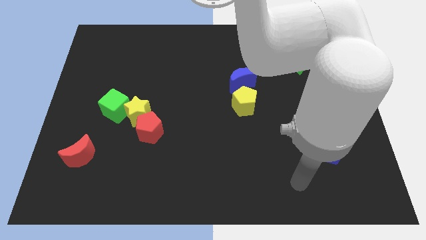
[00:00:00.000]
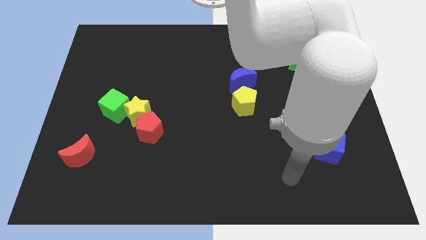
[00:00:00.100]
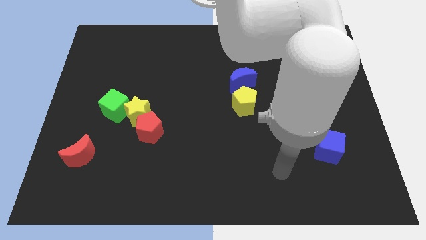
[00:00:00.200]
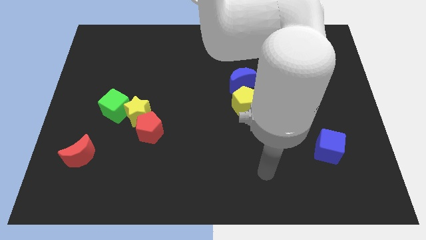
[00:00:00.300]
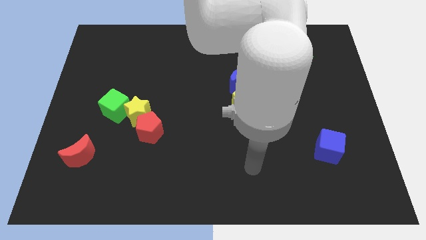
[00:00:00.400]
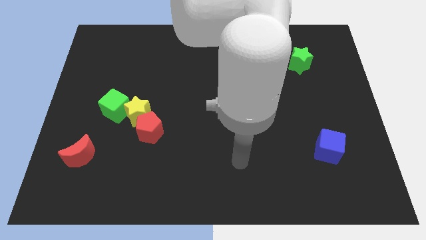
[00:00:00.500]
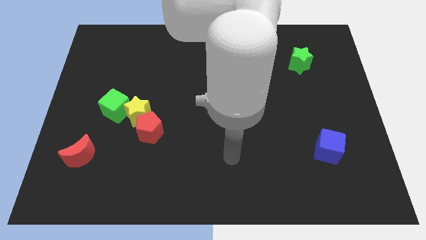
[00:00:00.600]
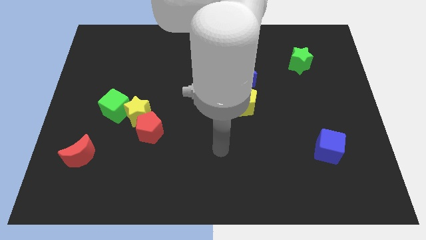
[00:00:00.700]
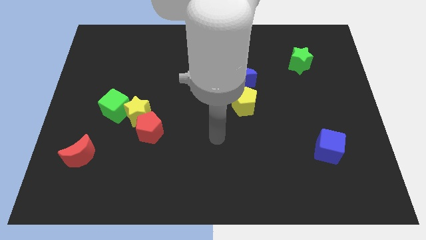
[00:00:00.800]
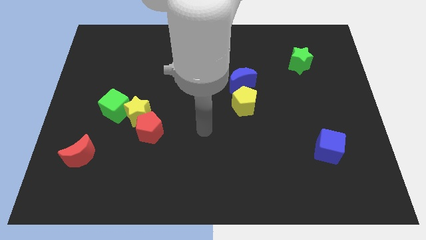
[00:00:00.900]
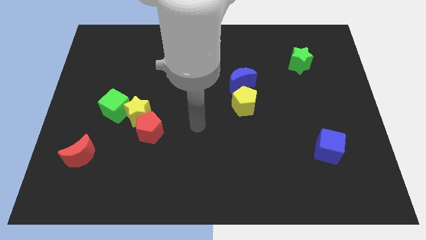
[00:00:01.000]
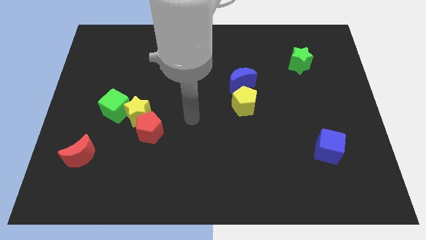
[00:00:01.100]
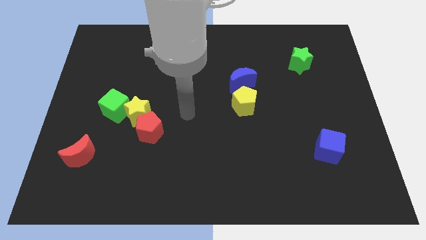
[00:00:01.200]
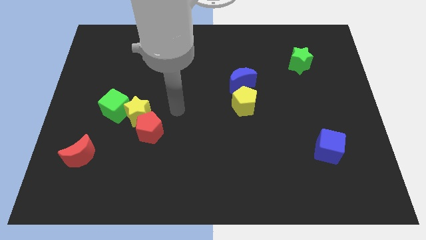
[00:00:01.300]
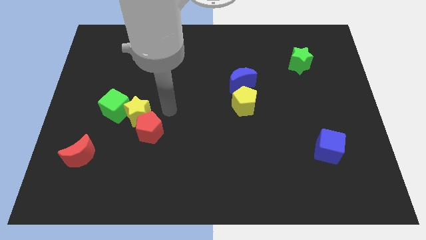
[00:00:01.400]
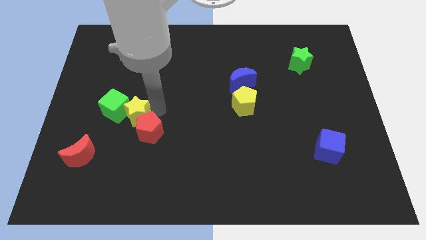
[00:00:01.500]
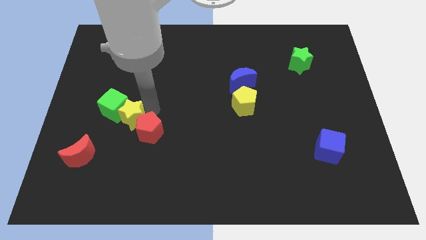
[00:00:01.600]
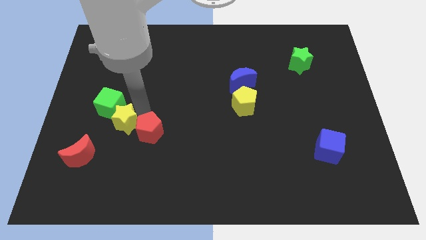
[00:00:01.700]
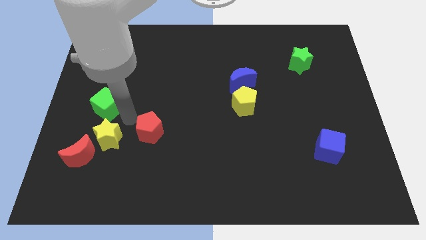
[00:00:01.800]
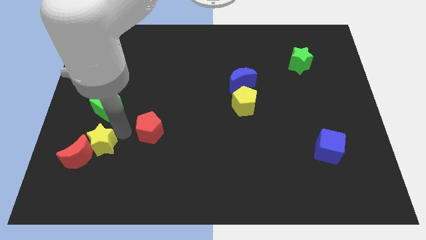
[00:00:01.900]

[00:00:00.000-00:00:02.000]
pull the red pentagon apart from the yellow star

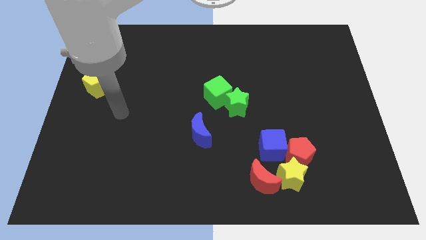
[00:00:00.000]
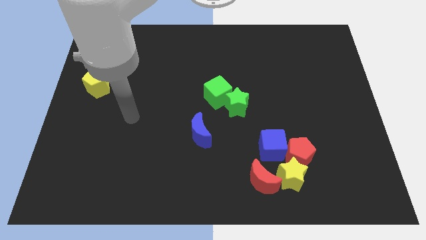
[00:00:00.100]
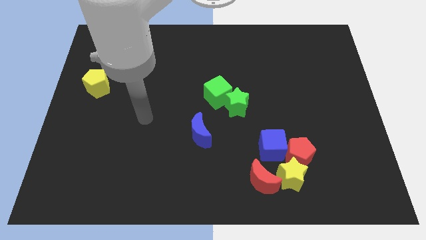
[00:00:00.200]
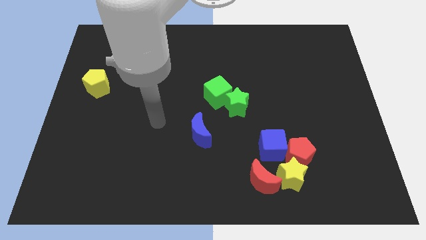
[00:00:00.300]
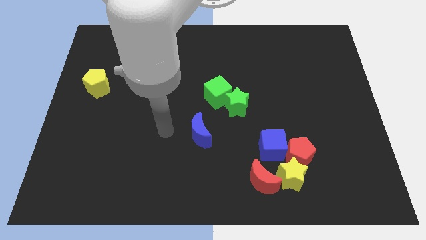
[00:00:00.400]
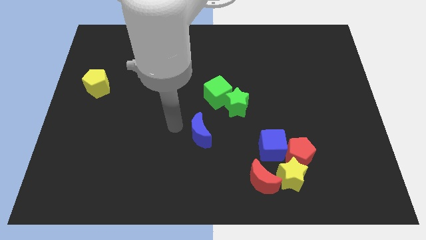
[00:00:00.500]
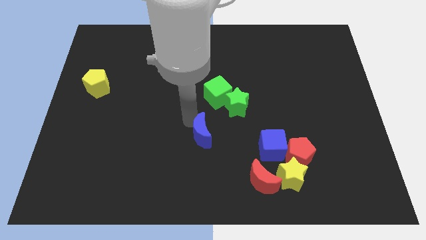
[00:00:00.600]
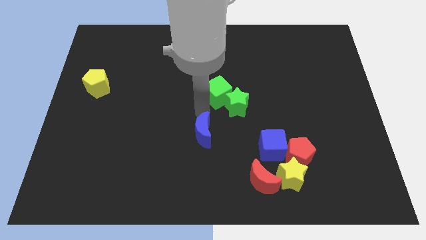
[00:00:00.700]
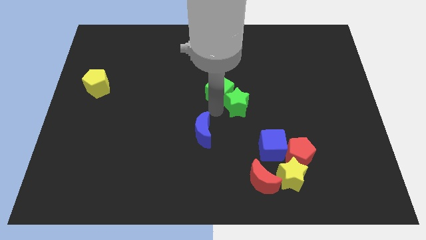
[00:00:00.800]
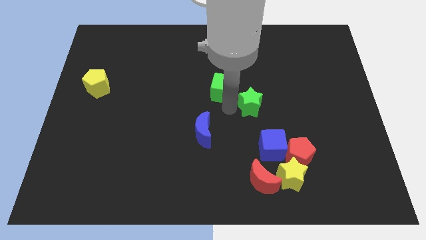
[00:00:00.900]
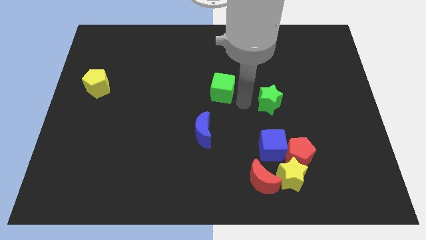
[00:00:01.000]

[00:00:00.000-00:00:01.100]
move the green cube away from the green star

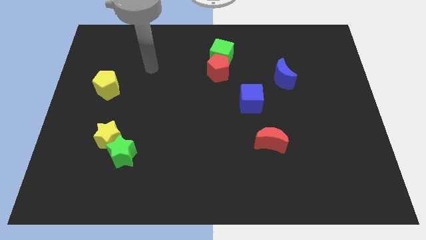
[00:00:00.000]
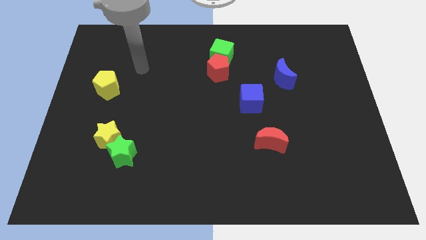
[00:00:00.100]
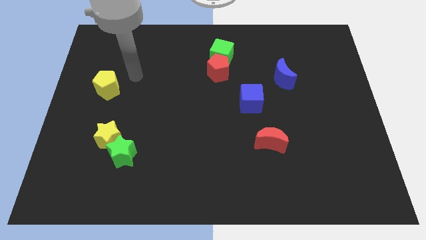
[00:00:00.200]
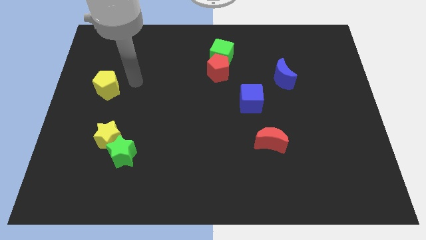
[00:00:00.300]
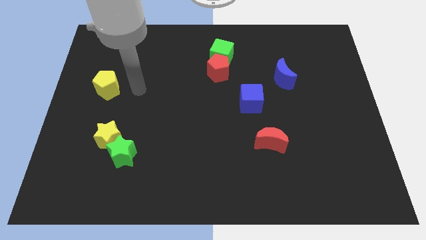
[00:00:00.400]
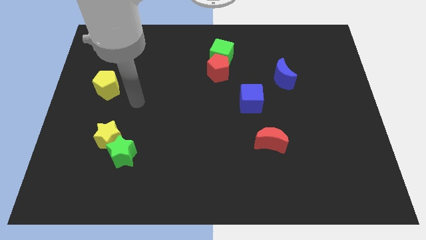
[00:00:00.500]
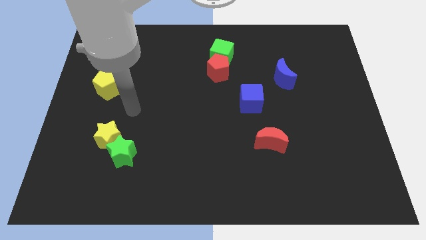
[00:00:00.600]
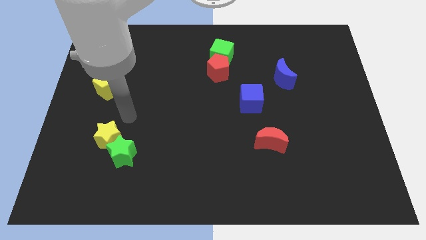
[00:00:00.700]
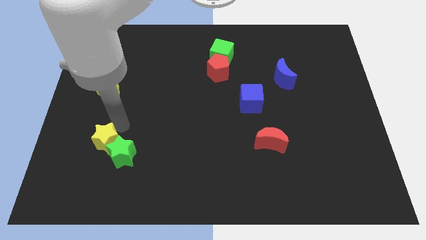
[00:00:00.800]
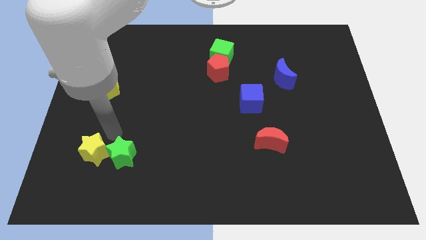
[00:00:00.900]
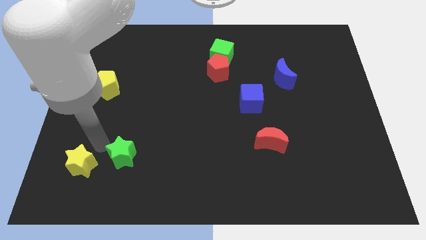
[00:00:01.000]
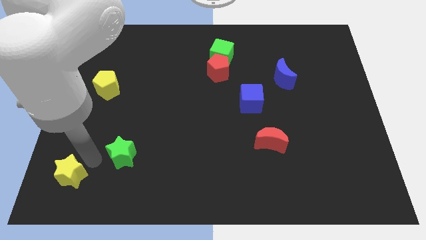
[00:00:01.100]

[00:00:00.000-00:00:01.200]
move the green star away from the yellow star

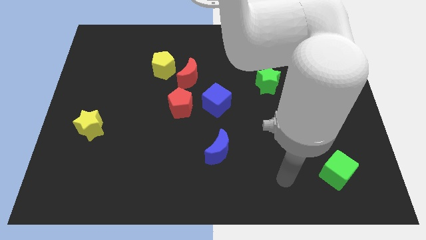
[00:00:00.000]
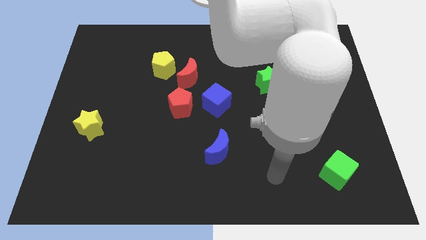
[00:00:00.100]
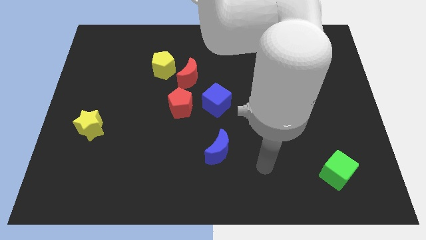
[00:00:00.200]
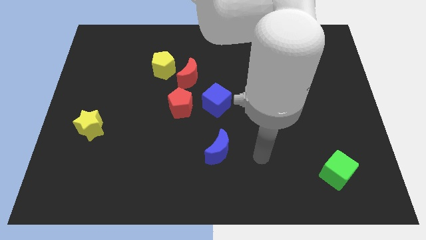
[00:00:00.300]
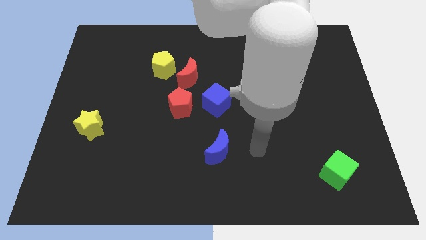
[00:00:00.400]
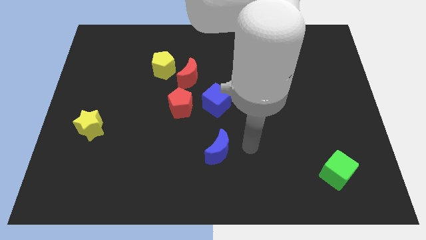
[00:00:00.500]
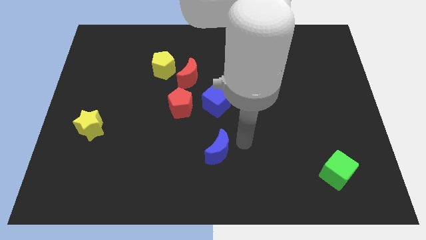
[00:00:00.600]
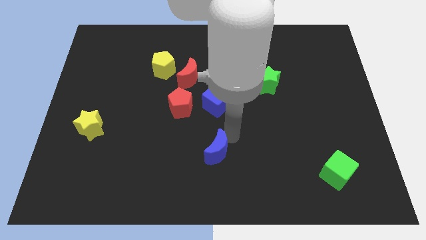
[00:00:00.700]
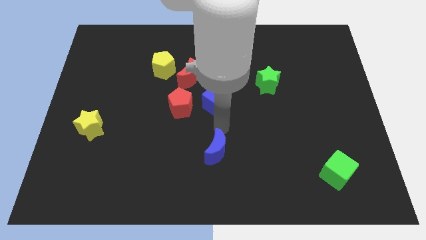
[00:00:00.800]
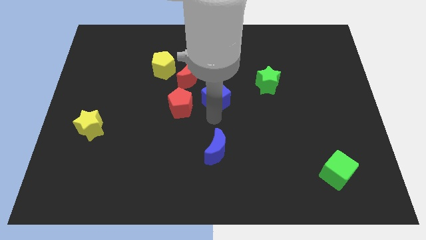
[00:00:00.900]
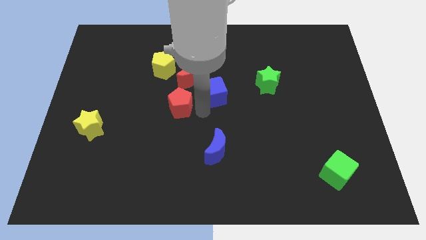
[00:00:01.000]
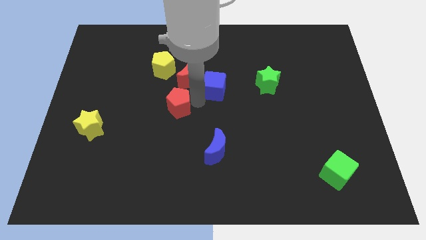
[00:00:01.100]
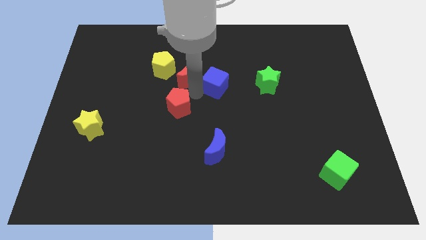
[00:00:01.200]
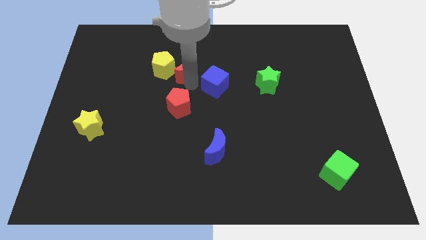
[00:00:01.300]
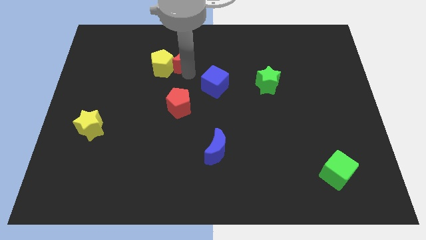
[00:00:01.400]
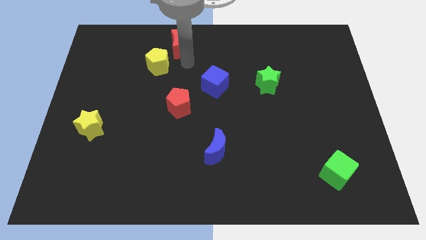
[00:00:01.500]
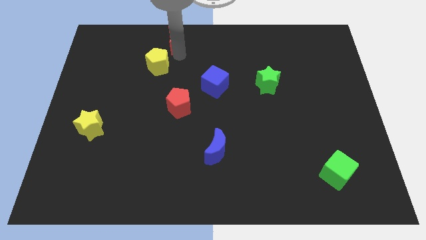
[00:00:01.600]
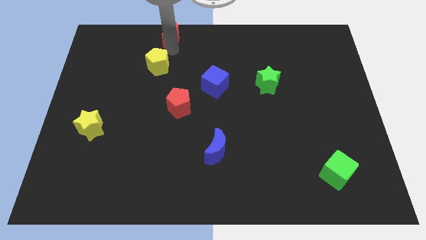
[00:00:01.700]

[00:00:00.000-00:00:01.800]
pull the yellow pentagon apart from the red moon

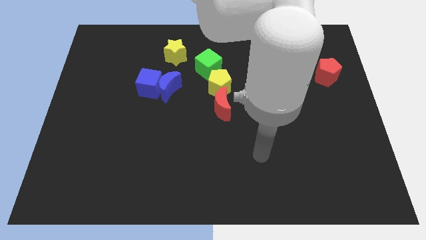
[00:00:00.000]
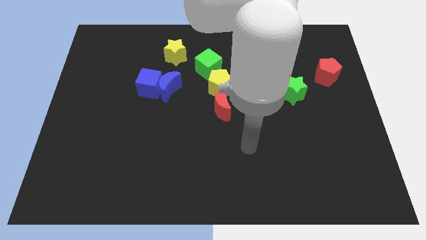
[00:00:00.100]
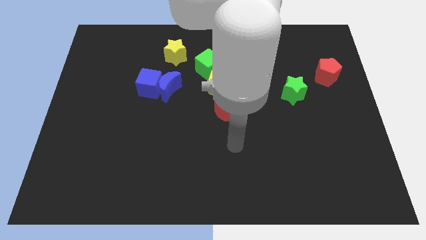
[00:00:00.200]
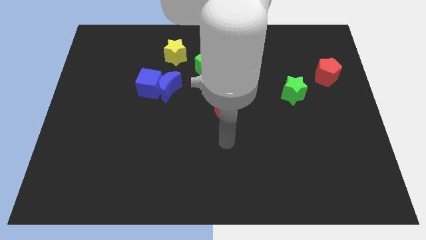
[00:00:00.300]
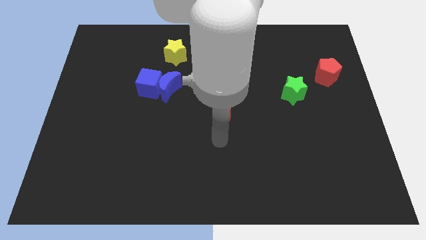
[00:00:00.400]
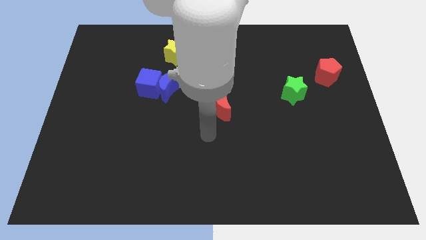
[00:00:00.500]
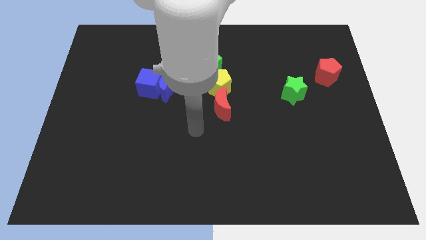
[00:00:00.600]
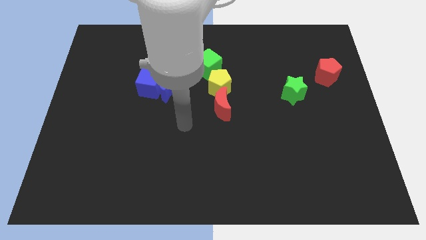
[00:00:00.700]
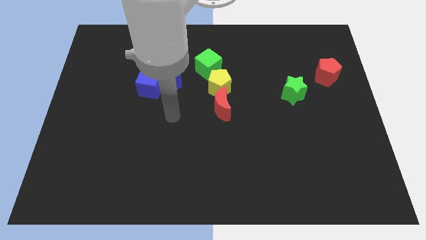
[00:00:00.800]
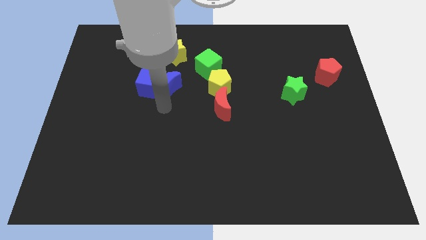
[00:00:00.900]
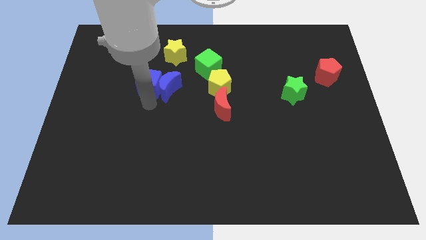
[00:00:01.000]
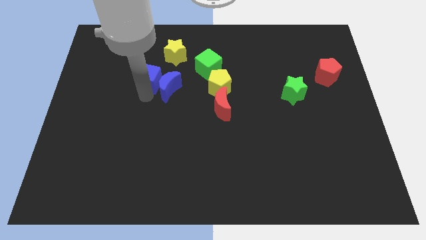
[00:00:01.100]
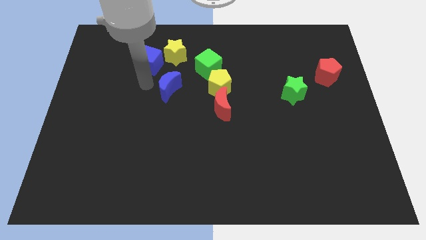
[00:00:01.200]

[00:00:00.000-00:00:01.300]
move the blue moon away from the blue cube

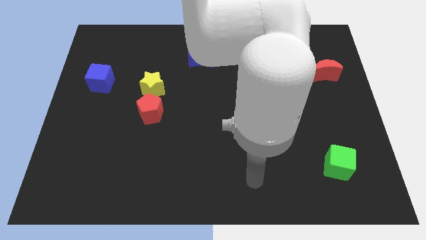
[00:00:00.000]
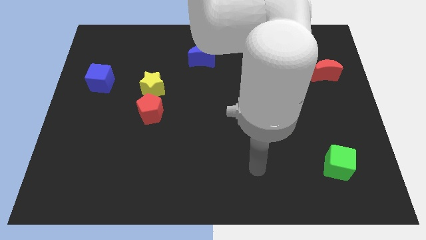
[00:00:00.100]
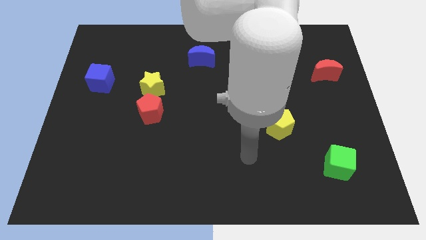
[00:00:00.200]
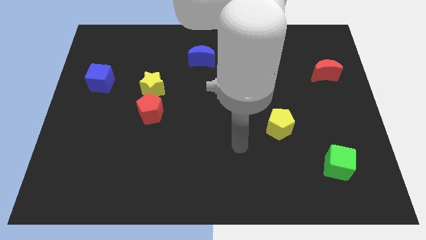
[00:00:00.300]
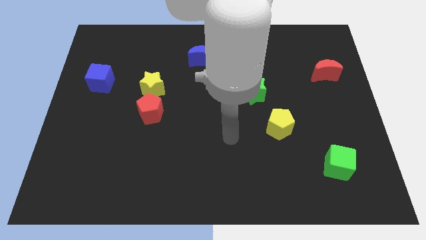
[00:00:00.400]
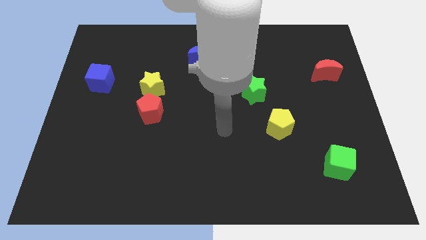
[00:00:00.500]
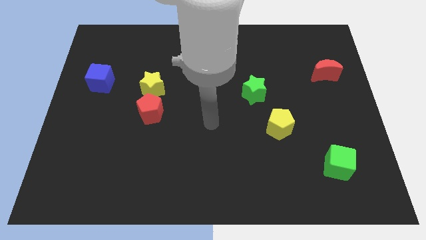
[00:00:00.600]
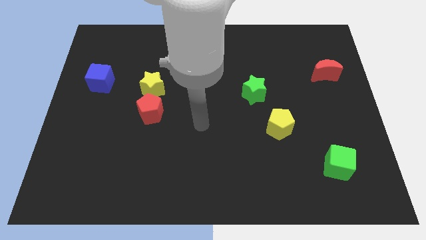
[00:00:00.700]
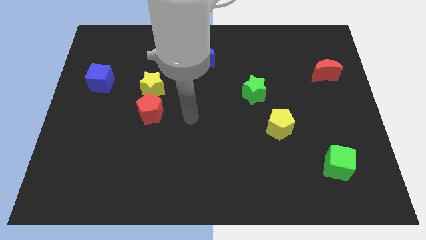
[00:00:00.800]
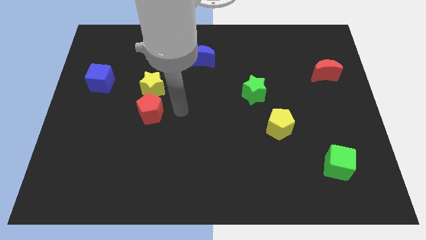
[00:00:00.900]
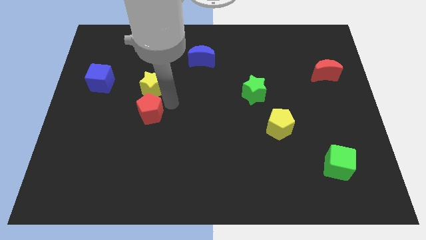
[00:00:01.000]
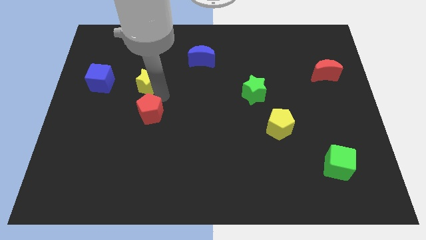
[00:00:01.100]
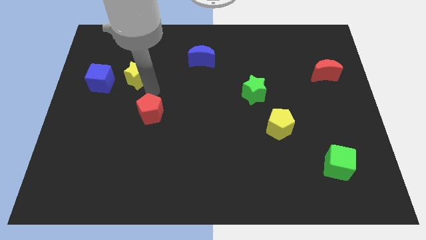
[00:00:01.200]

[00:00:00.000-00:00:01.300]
separate the red pentagon from the yellow star

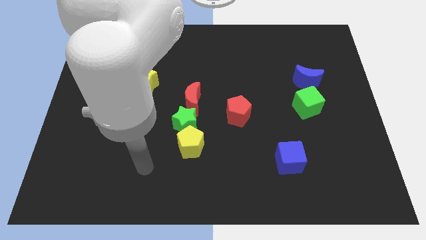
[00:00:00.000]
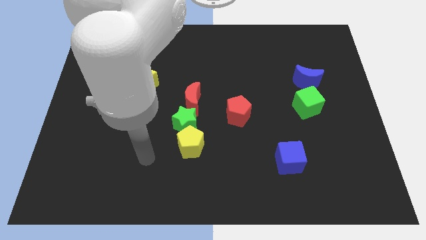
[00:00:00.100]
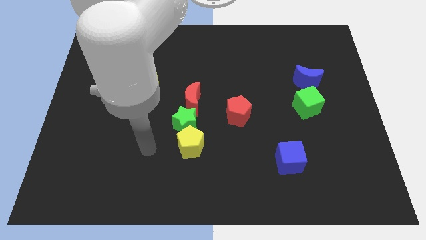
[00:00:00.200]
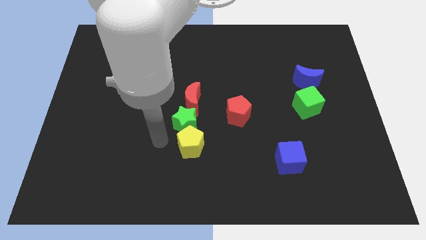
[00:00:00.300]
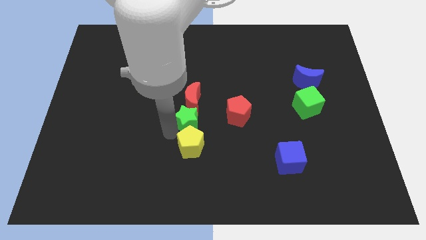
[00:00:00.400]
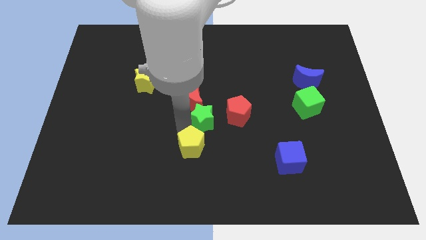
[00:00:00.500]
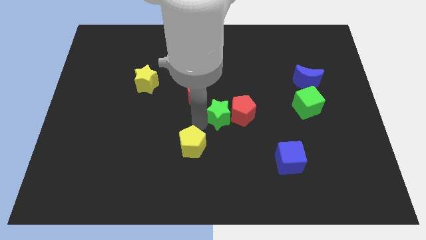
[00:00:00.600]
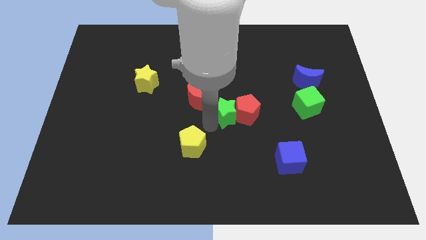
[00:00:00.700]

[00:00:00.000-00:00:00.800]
separate the yellow pentagon from the green star
